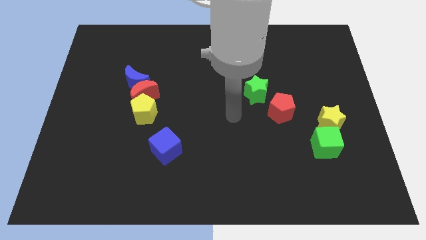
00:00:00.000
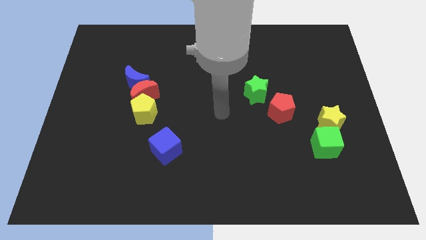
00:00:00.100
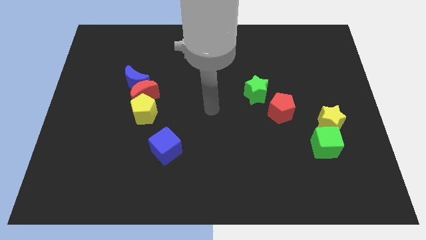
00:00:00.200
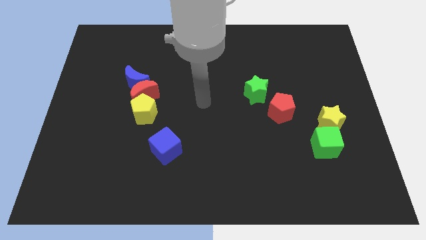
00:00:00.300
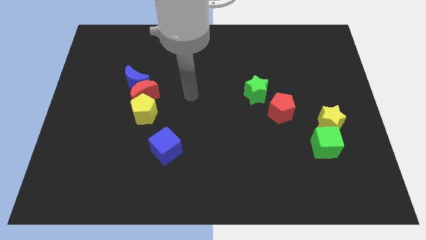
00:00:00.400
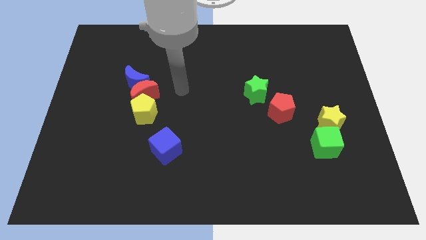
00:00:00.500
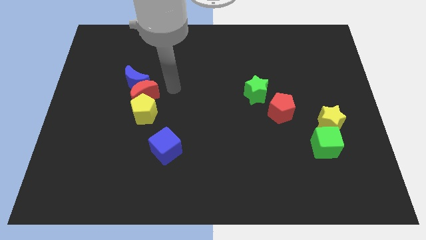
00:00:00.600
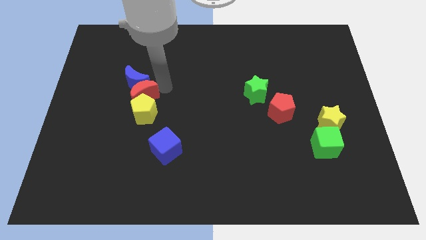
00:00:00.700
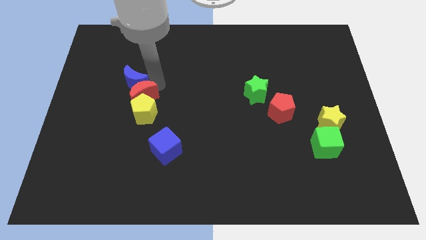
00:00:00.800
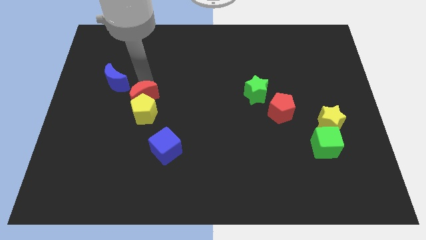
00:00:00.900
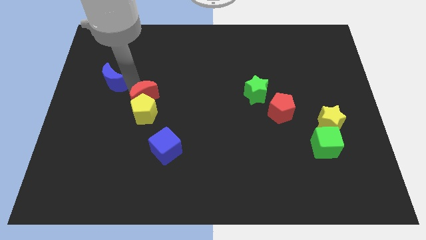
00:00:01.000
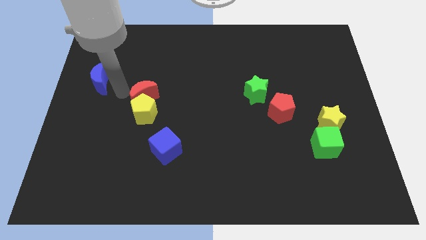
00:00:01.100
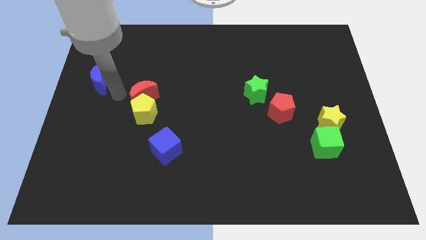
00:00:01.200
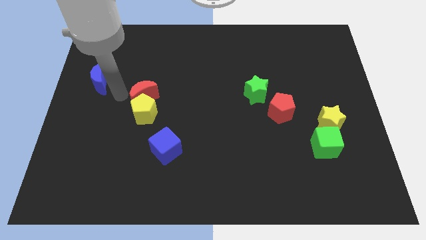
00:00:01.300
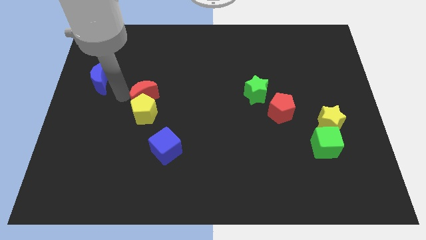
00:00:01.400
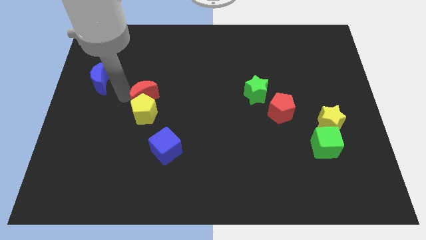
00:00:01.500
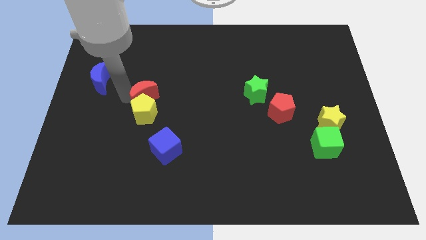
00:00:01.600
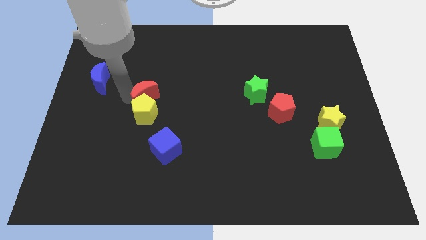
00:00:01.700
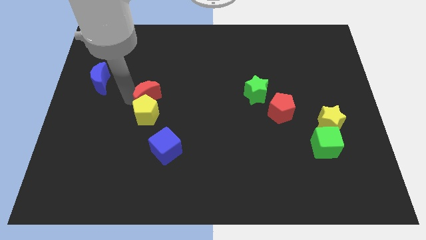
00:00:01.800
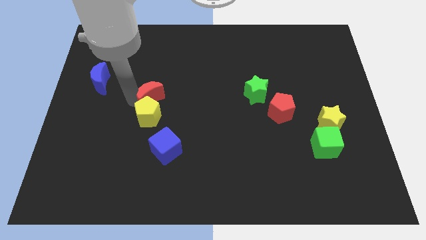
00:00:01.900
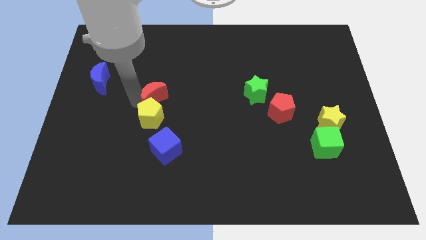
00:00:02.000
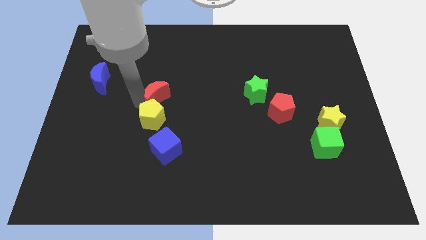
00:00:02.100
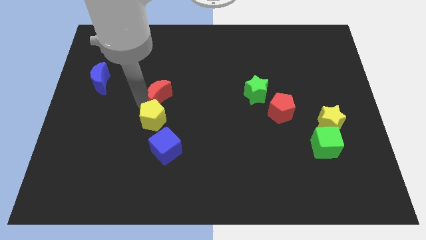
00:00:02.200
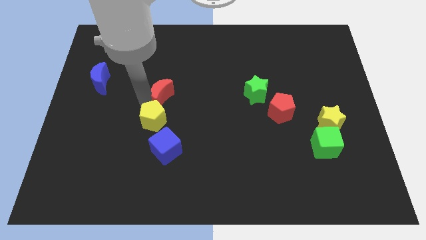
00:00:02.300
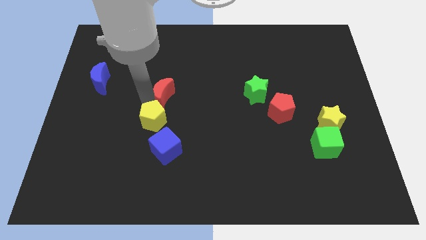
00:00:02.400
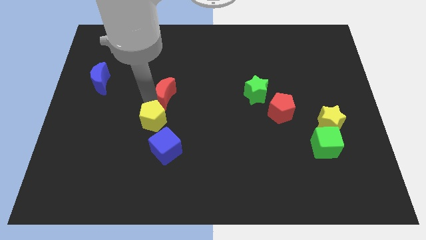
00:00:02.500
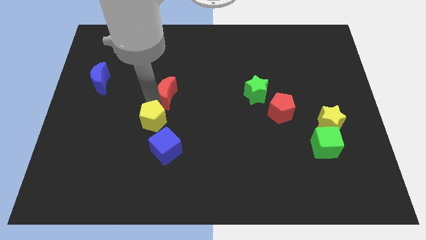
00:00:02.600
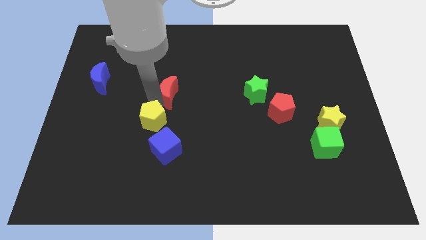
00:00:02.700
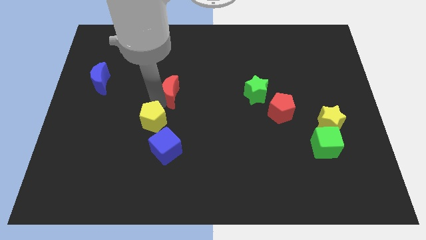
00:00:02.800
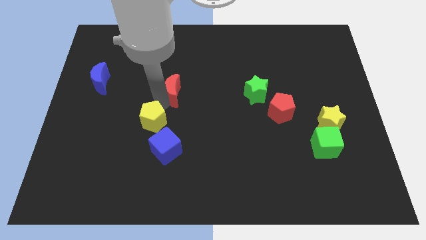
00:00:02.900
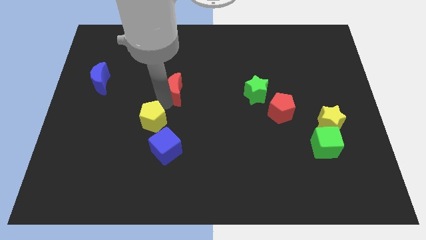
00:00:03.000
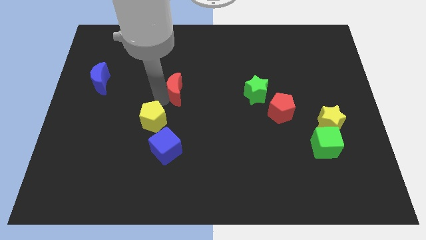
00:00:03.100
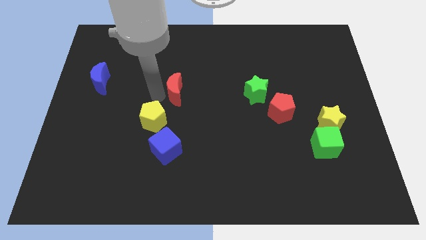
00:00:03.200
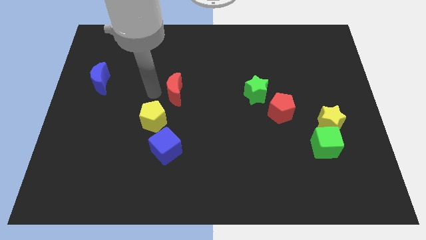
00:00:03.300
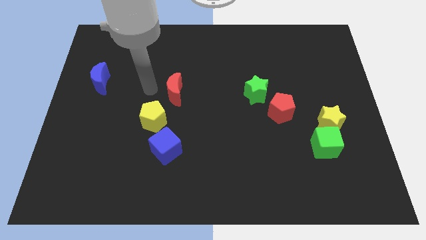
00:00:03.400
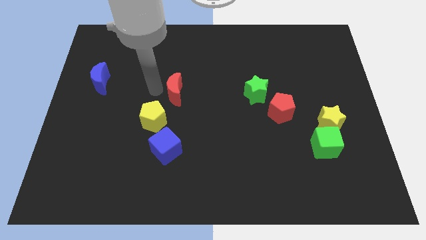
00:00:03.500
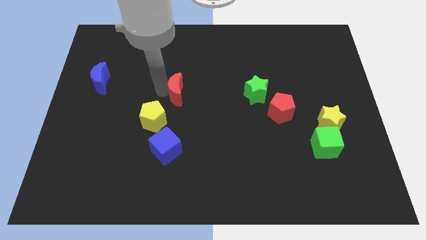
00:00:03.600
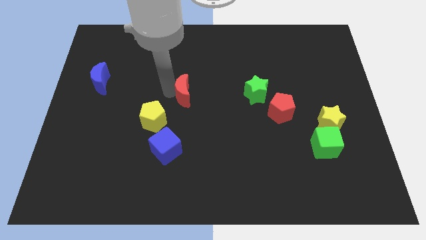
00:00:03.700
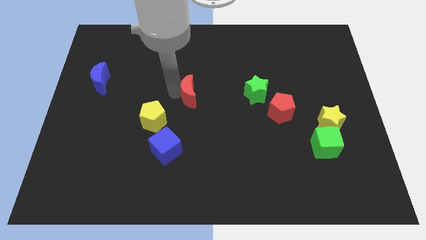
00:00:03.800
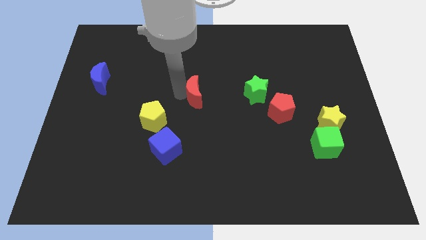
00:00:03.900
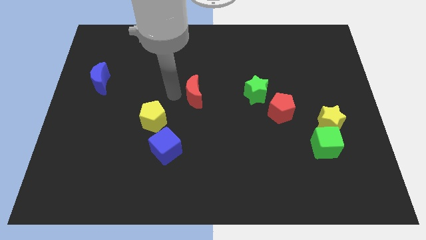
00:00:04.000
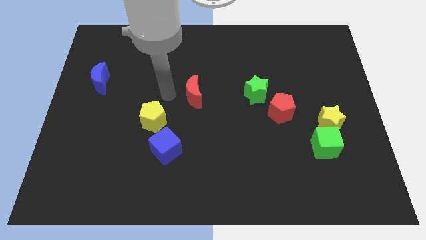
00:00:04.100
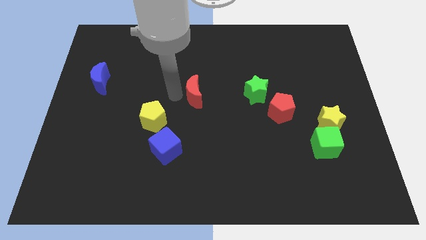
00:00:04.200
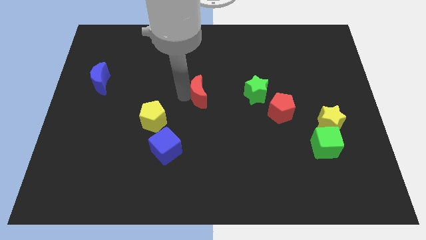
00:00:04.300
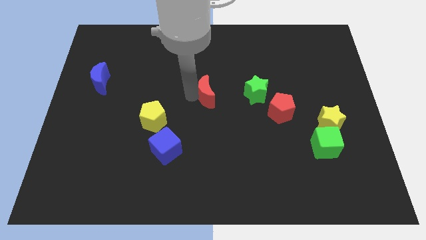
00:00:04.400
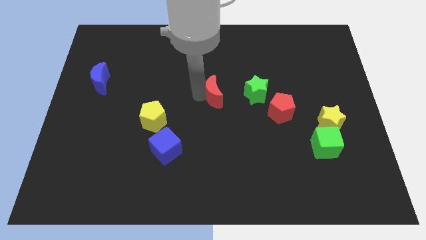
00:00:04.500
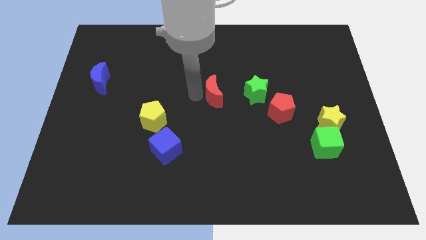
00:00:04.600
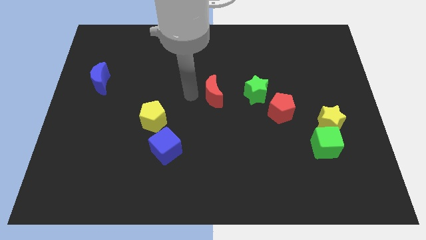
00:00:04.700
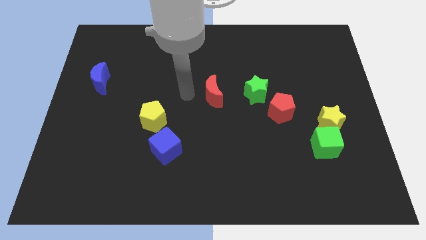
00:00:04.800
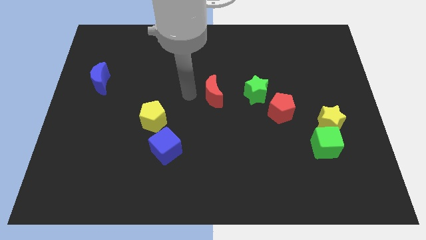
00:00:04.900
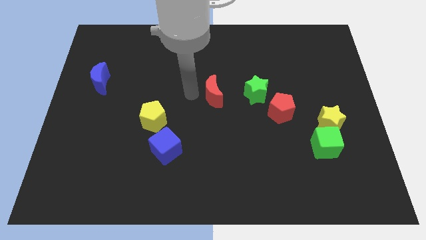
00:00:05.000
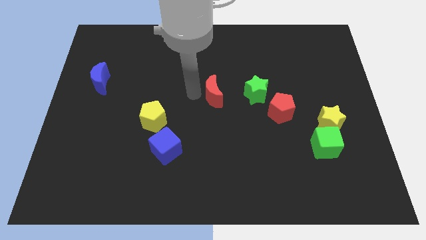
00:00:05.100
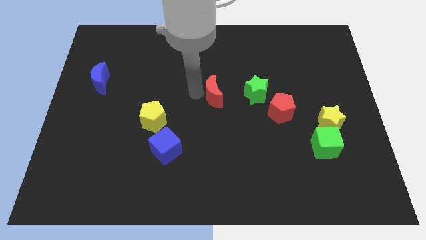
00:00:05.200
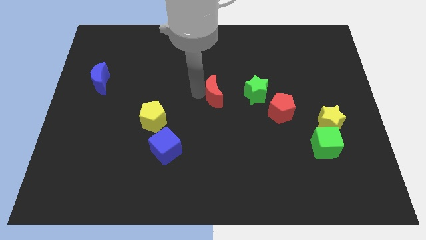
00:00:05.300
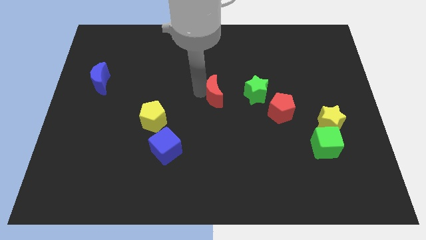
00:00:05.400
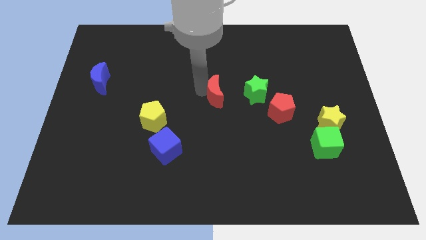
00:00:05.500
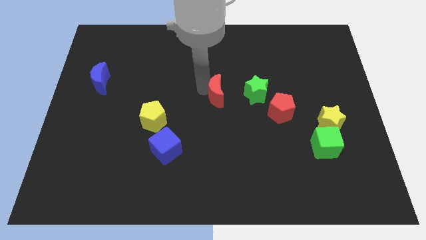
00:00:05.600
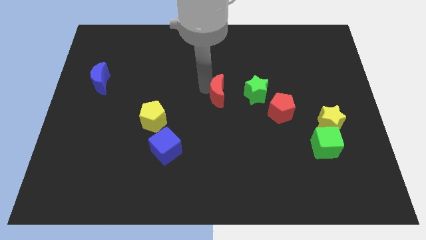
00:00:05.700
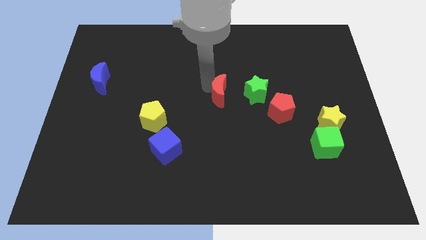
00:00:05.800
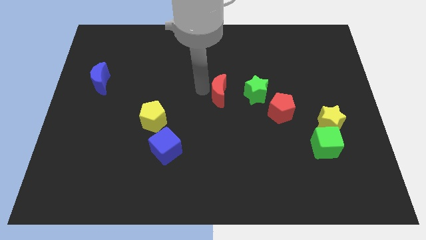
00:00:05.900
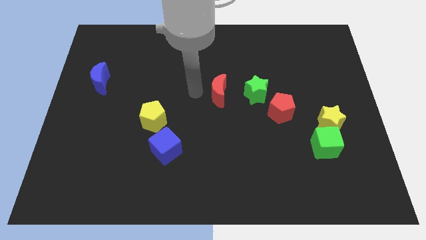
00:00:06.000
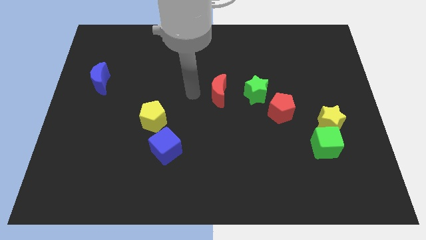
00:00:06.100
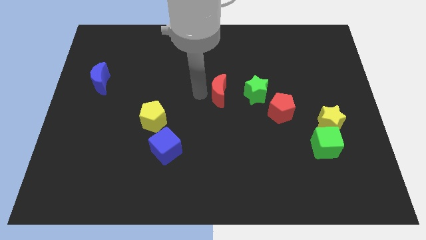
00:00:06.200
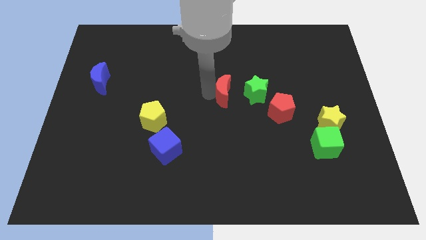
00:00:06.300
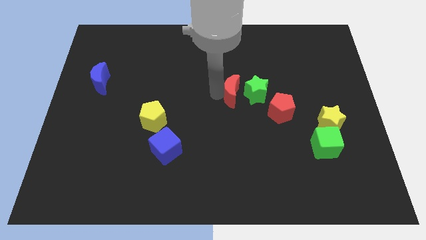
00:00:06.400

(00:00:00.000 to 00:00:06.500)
slide the red moon towards the green star
